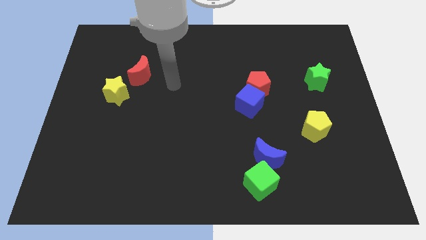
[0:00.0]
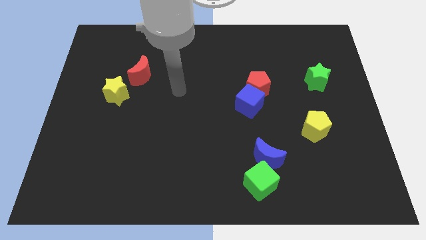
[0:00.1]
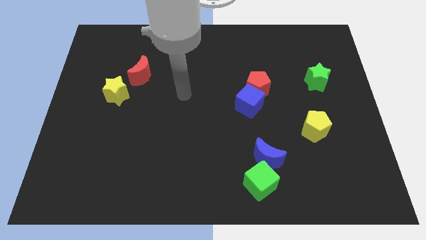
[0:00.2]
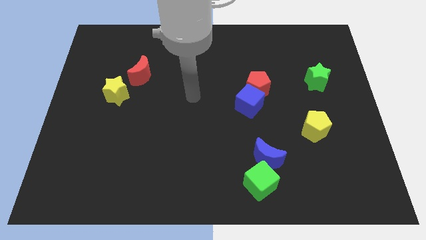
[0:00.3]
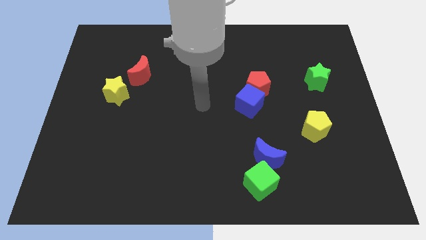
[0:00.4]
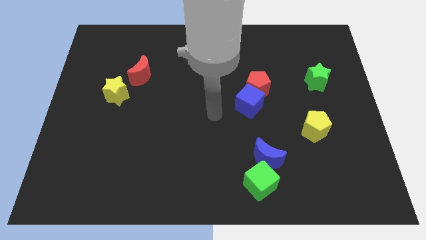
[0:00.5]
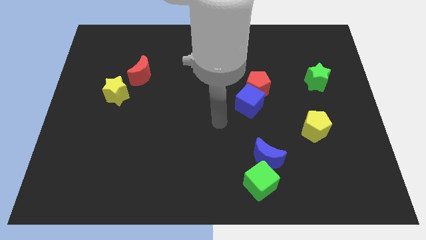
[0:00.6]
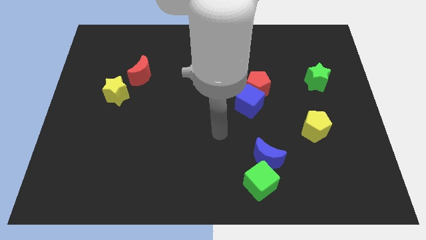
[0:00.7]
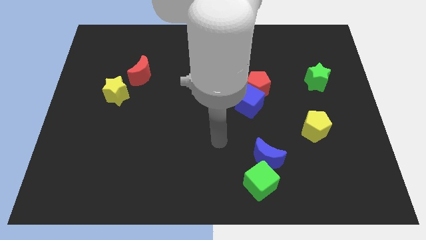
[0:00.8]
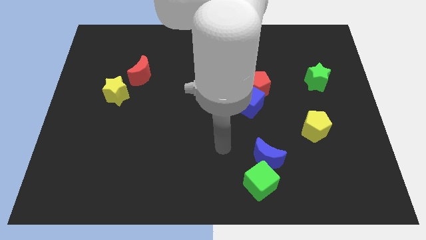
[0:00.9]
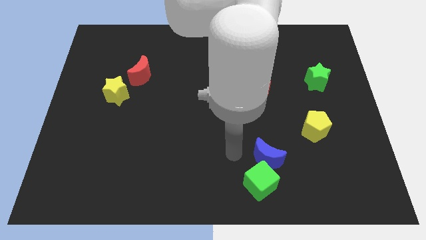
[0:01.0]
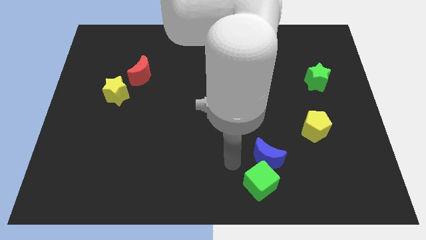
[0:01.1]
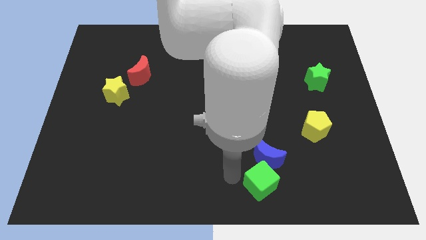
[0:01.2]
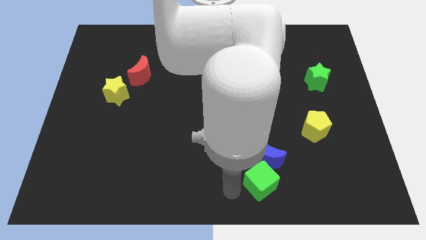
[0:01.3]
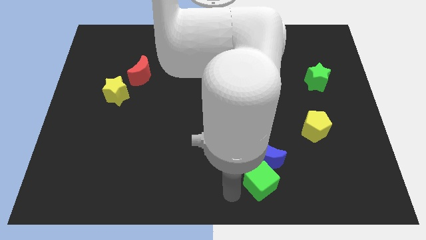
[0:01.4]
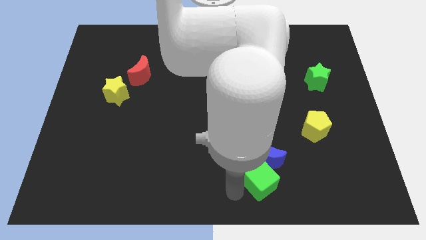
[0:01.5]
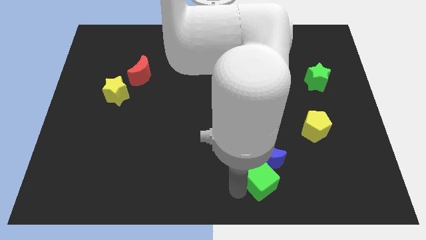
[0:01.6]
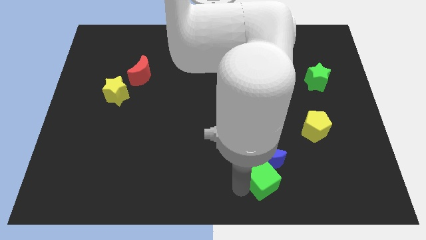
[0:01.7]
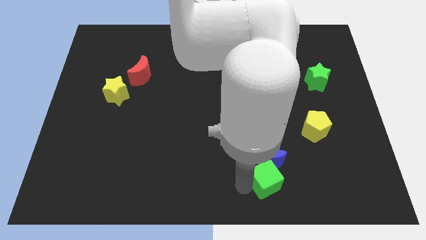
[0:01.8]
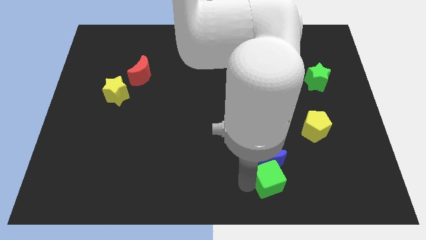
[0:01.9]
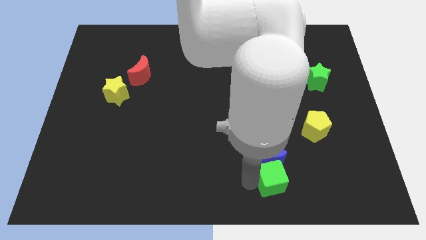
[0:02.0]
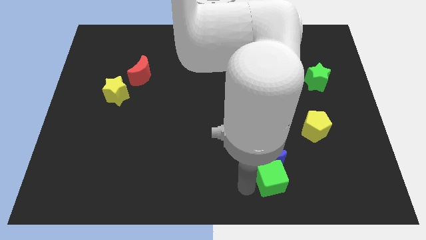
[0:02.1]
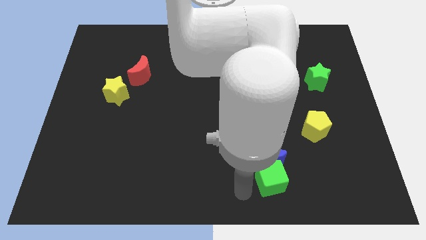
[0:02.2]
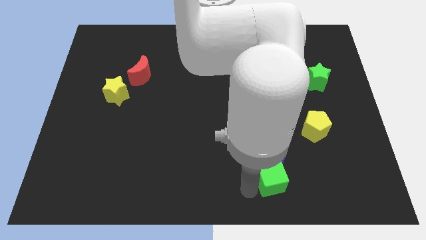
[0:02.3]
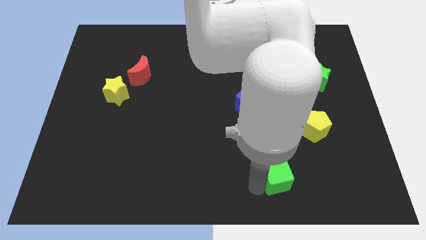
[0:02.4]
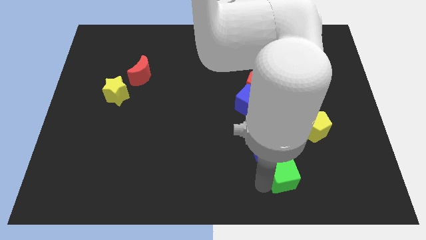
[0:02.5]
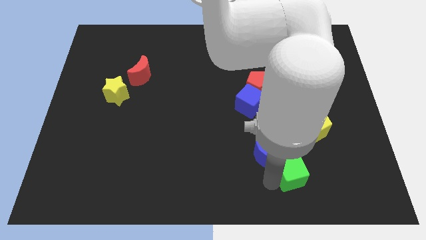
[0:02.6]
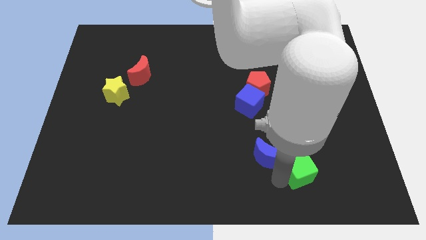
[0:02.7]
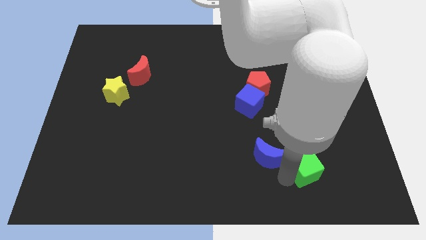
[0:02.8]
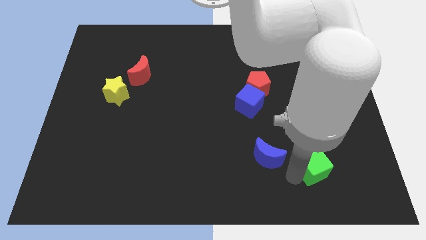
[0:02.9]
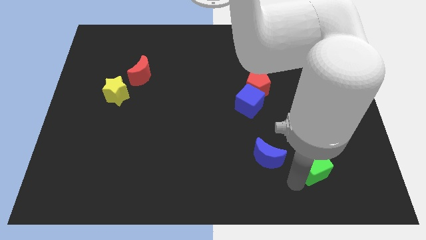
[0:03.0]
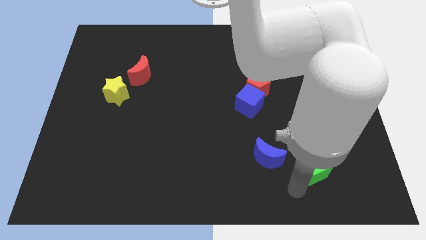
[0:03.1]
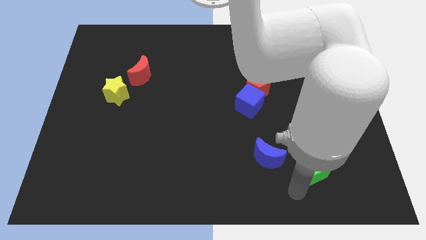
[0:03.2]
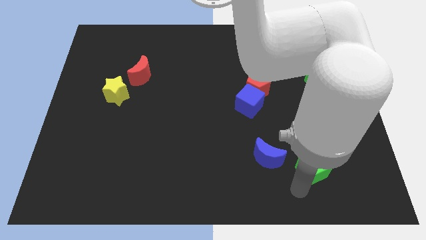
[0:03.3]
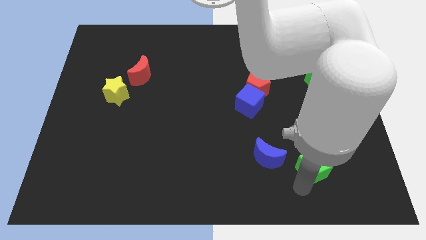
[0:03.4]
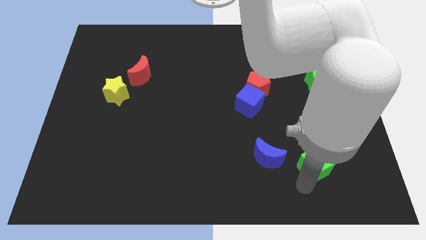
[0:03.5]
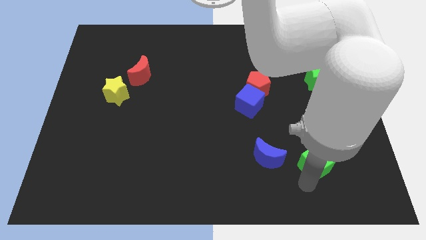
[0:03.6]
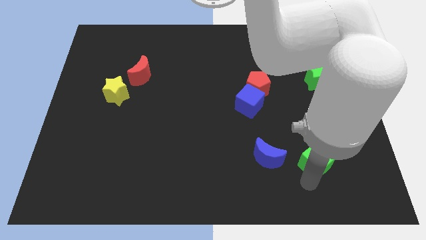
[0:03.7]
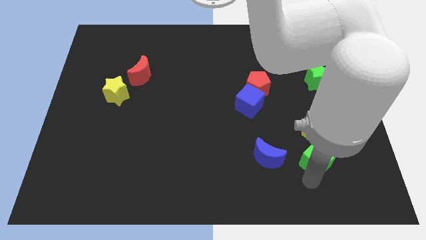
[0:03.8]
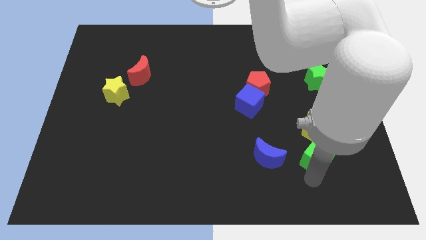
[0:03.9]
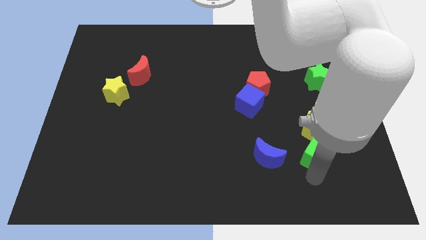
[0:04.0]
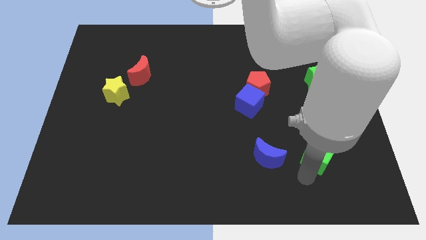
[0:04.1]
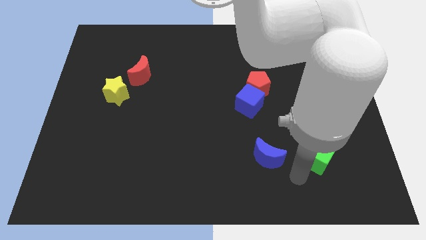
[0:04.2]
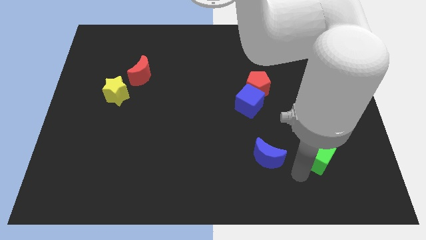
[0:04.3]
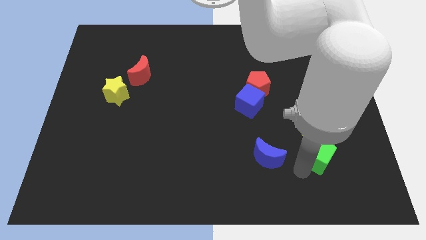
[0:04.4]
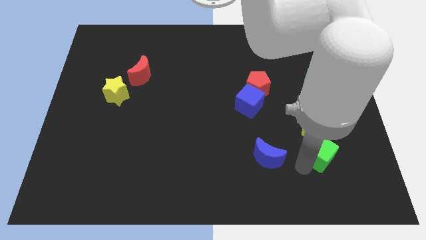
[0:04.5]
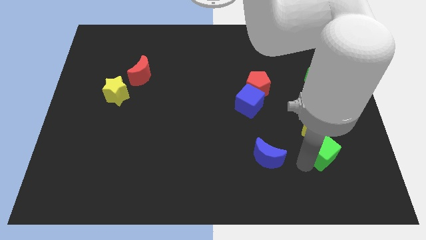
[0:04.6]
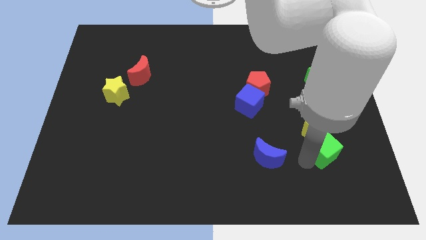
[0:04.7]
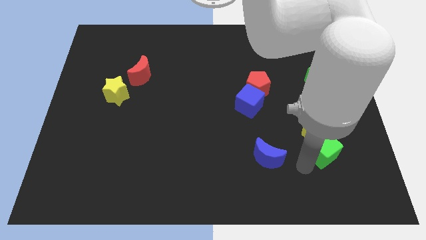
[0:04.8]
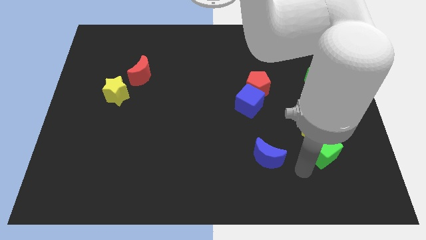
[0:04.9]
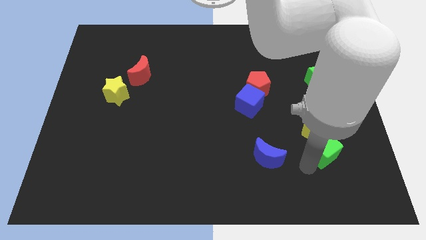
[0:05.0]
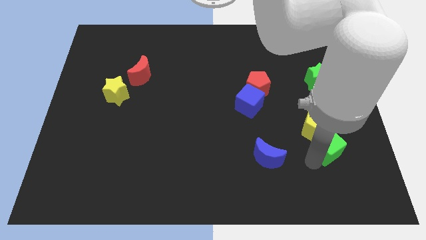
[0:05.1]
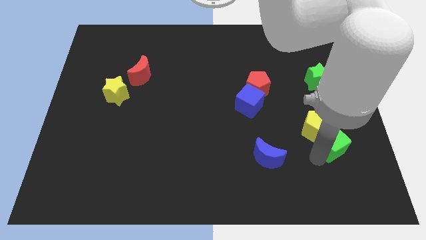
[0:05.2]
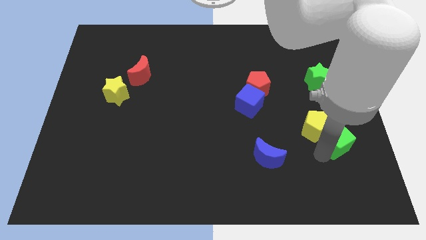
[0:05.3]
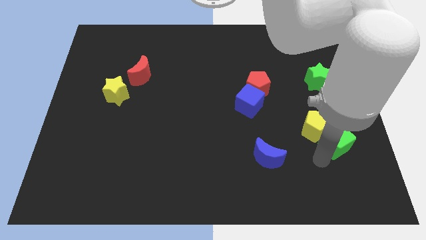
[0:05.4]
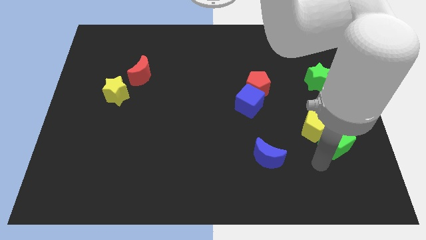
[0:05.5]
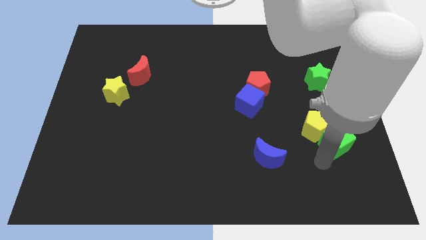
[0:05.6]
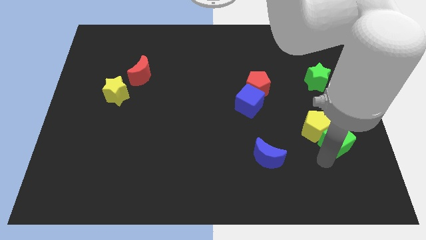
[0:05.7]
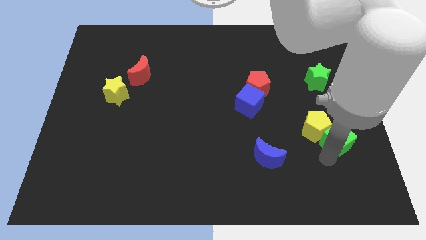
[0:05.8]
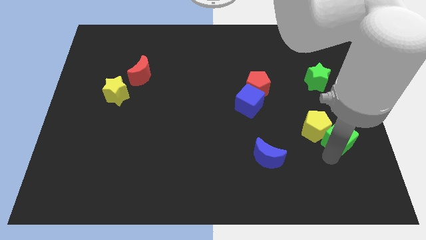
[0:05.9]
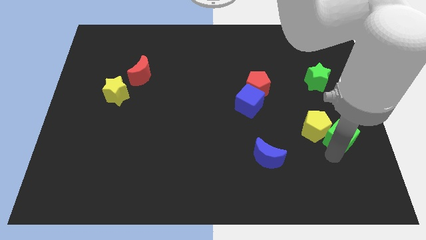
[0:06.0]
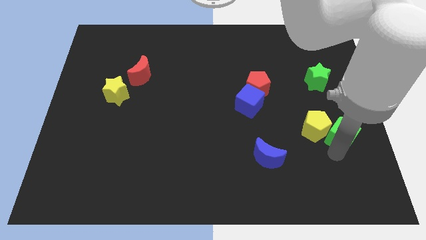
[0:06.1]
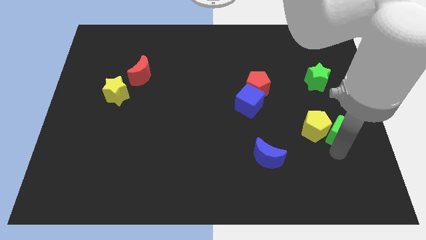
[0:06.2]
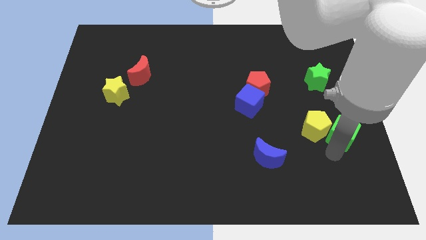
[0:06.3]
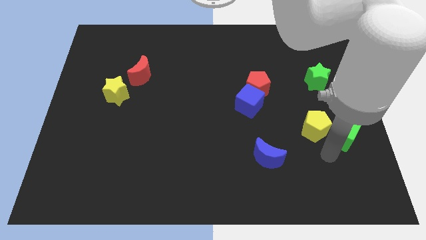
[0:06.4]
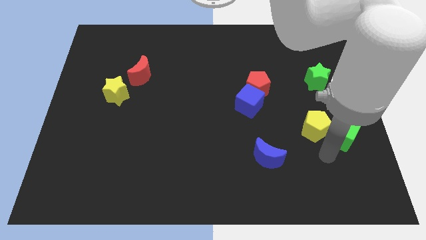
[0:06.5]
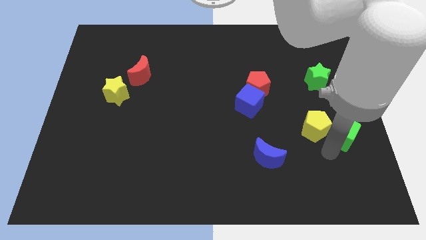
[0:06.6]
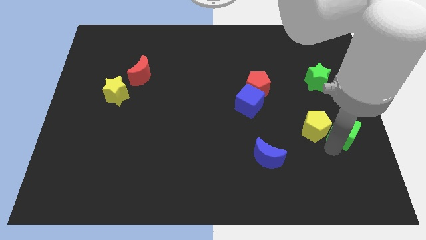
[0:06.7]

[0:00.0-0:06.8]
put the green cube to the right side
